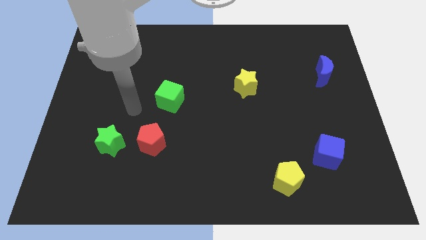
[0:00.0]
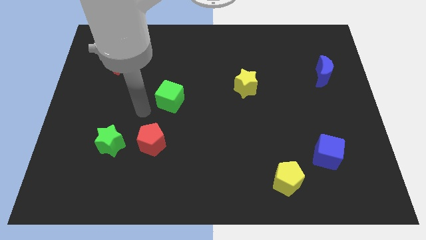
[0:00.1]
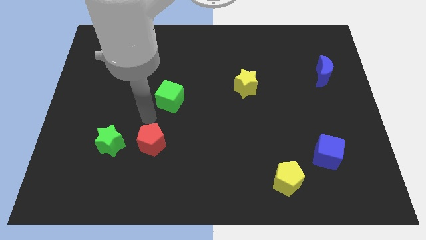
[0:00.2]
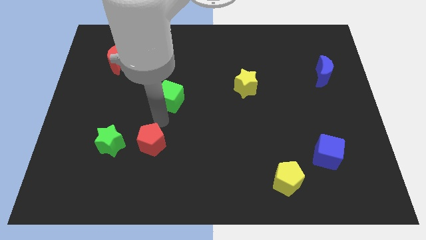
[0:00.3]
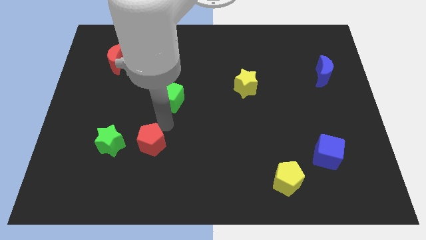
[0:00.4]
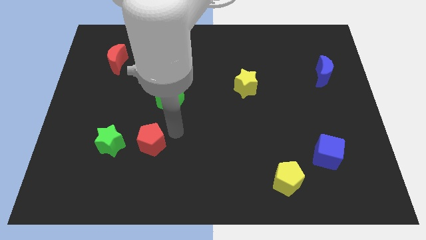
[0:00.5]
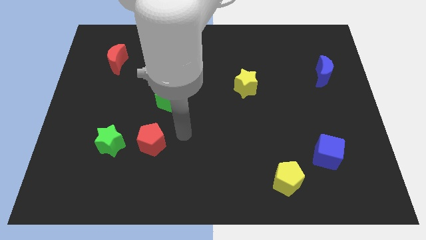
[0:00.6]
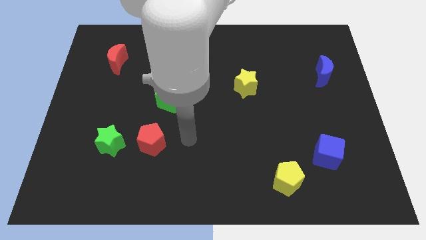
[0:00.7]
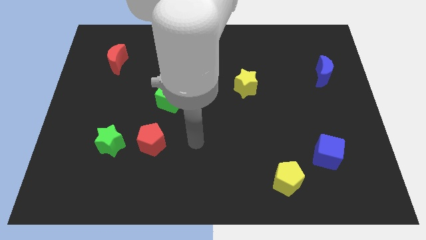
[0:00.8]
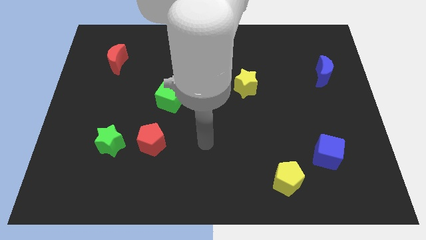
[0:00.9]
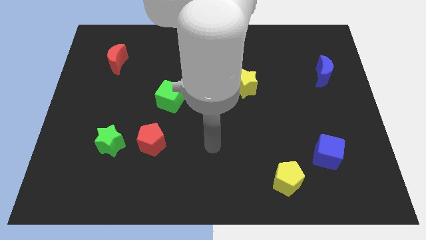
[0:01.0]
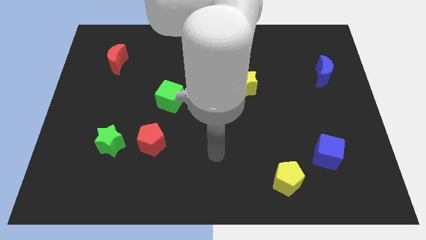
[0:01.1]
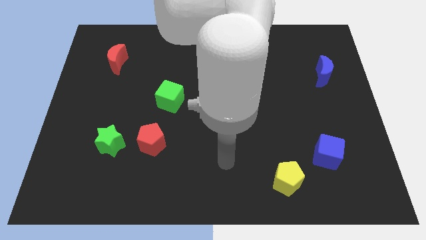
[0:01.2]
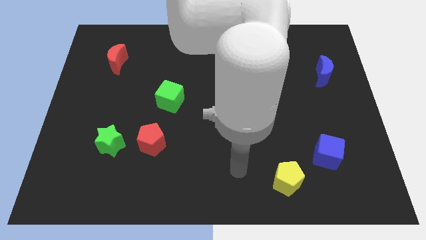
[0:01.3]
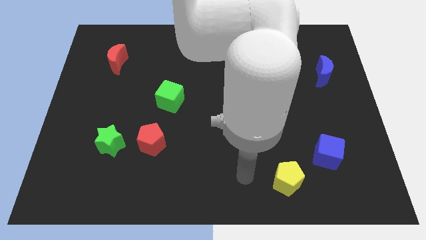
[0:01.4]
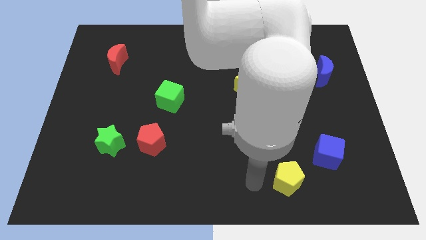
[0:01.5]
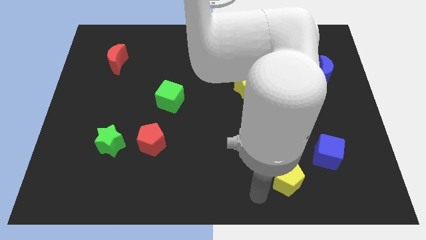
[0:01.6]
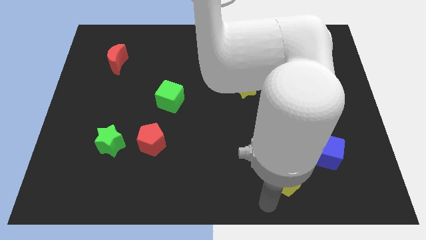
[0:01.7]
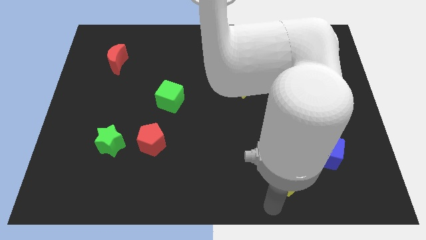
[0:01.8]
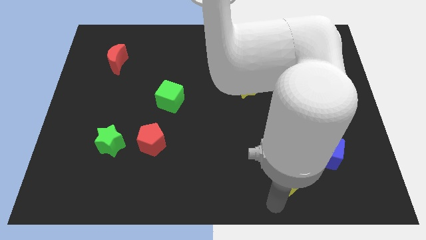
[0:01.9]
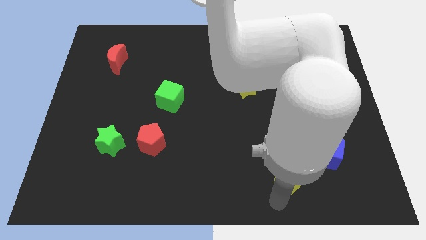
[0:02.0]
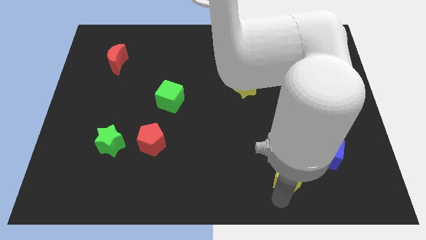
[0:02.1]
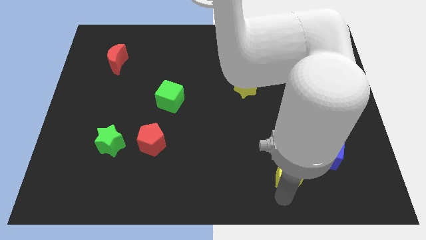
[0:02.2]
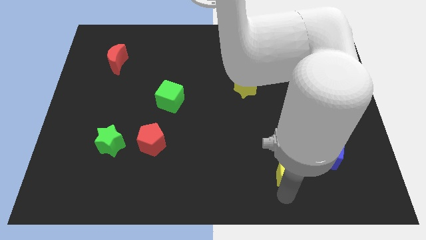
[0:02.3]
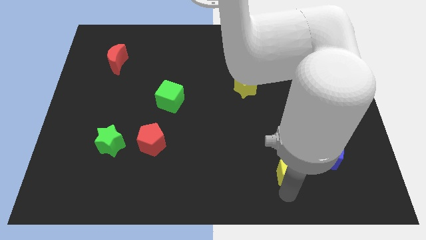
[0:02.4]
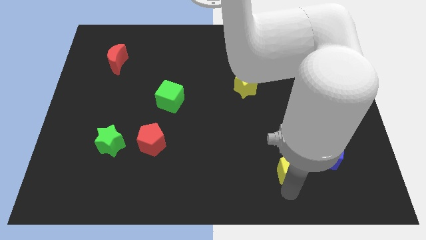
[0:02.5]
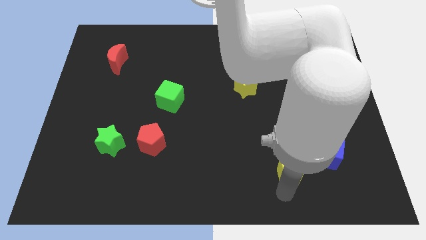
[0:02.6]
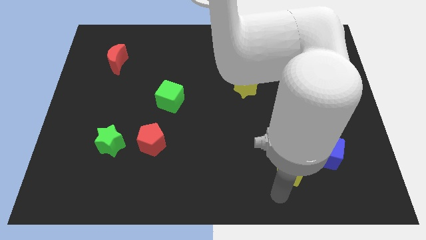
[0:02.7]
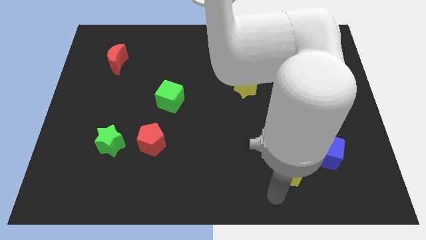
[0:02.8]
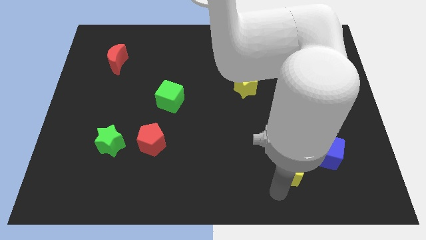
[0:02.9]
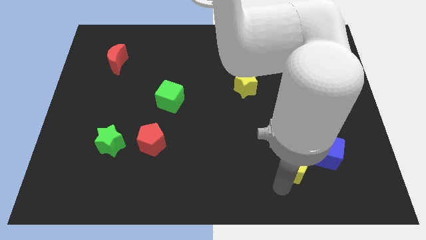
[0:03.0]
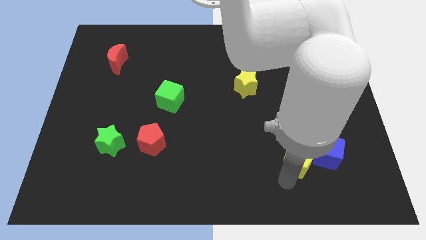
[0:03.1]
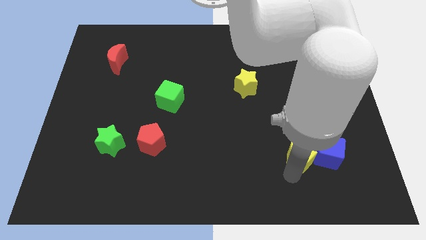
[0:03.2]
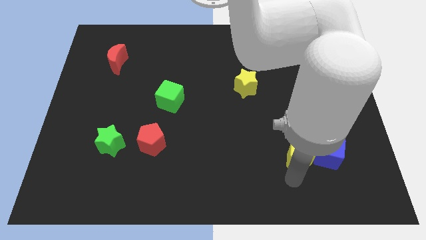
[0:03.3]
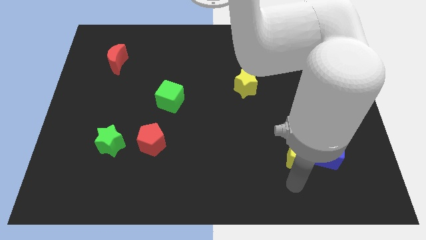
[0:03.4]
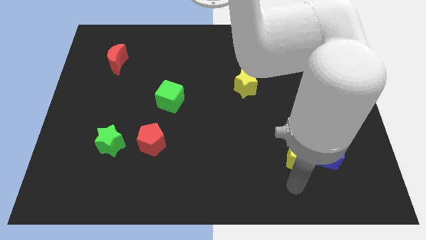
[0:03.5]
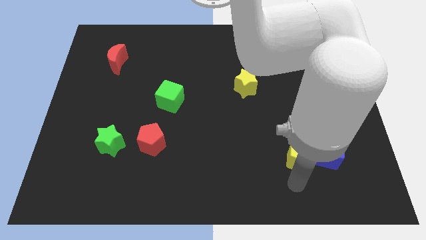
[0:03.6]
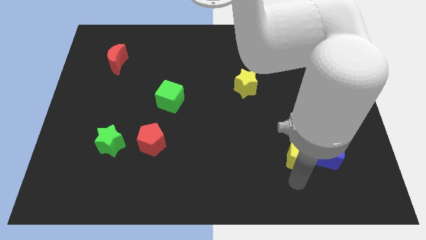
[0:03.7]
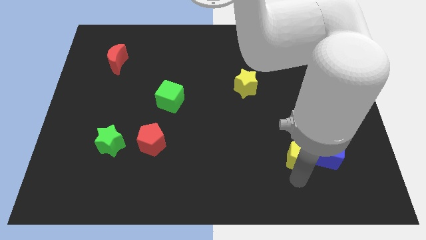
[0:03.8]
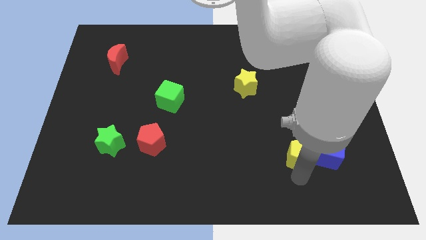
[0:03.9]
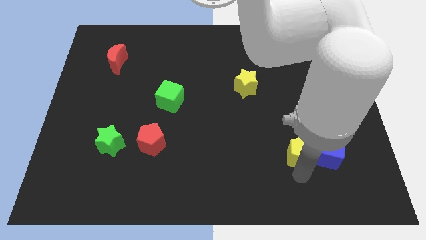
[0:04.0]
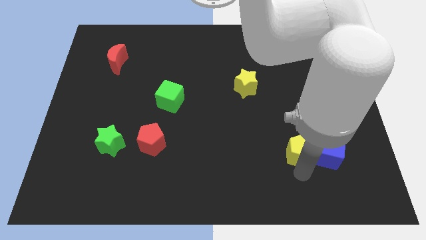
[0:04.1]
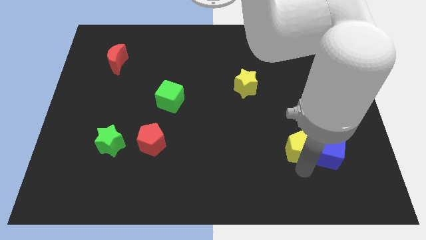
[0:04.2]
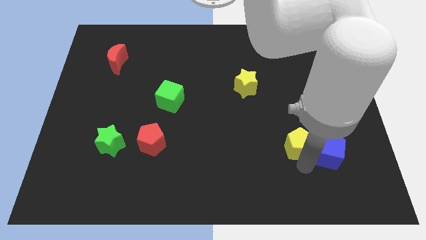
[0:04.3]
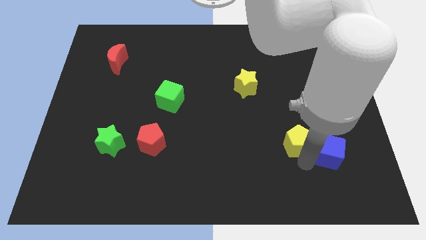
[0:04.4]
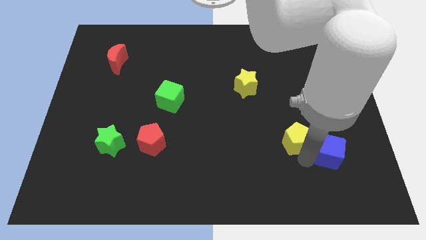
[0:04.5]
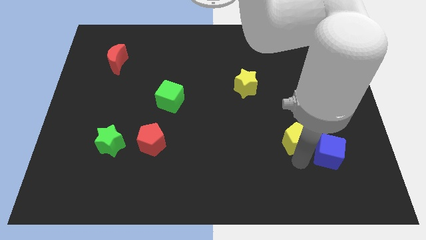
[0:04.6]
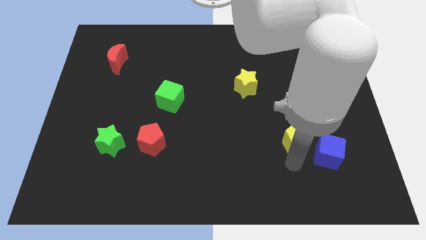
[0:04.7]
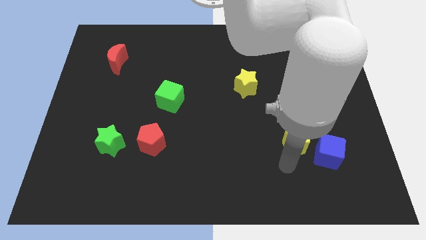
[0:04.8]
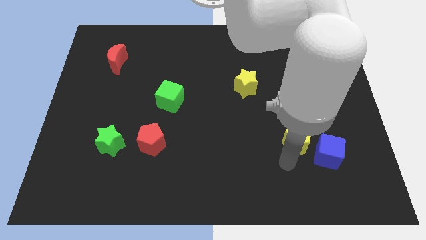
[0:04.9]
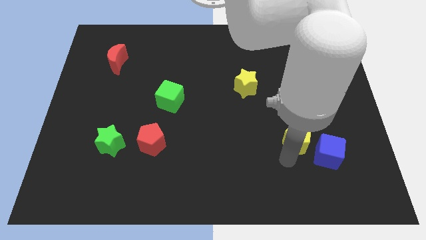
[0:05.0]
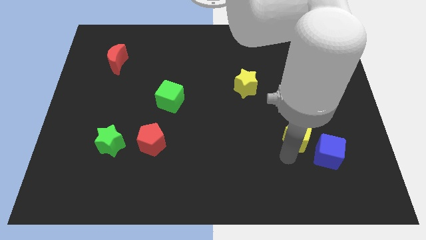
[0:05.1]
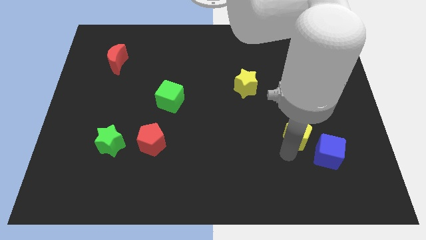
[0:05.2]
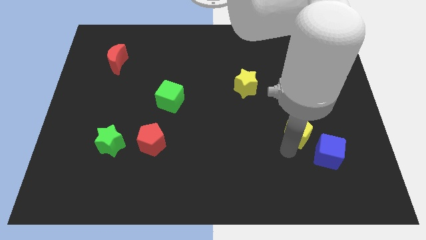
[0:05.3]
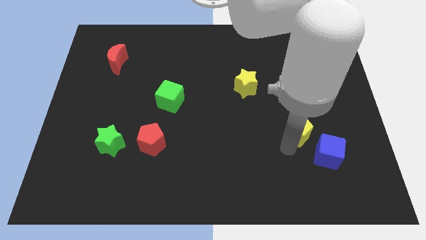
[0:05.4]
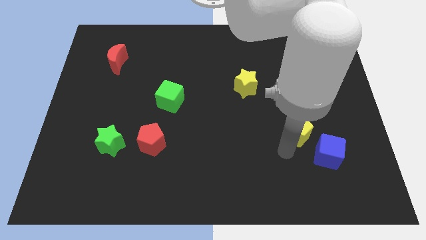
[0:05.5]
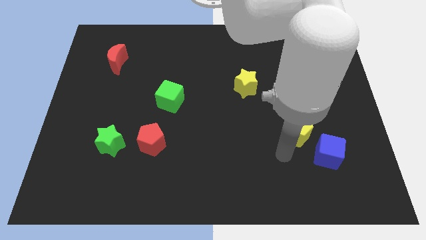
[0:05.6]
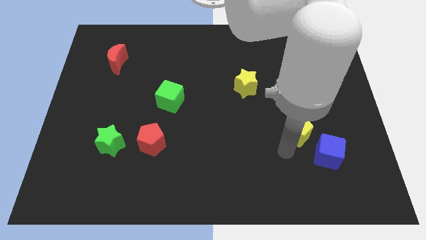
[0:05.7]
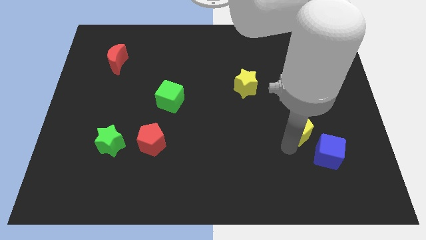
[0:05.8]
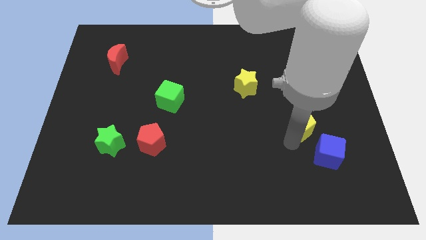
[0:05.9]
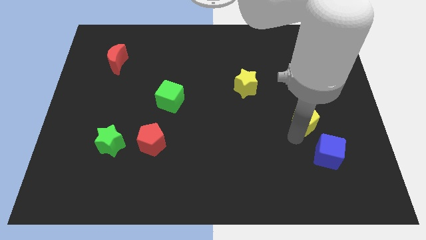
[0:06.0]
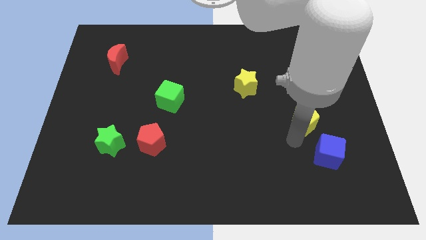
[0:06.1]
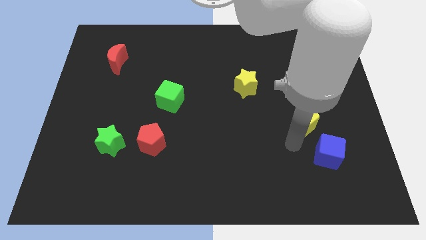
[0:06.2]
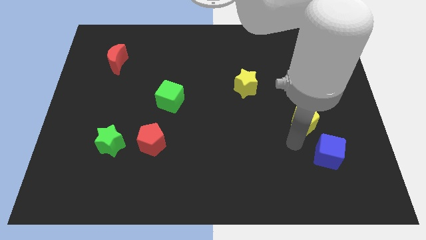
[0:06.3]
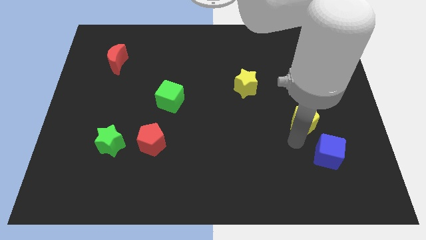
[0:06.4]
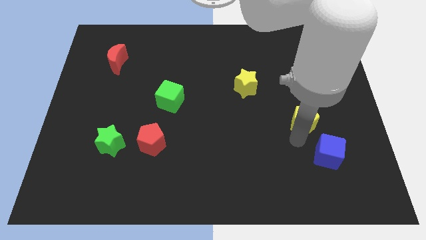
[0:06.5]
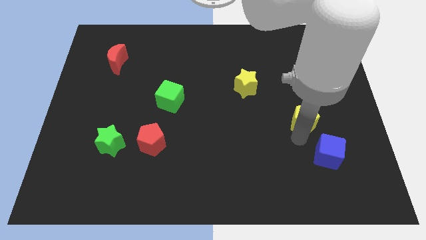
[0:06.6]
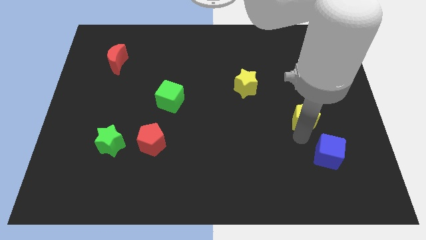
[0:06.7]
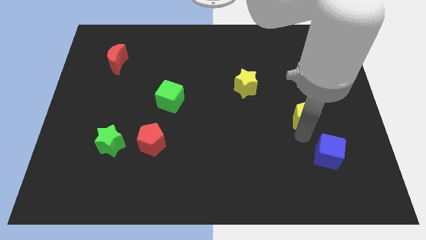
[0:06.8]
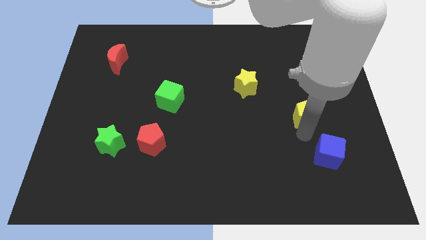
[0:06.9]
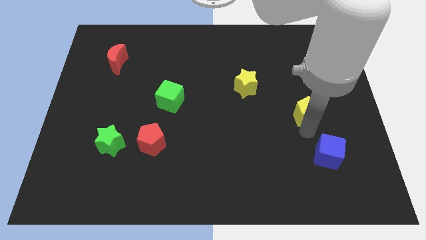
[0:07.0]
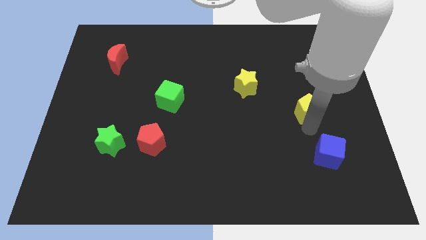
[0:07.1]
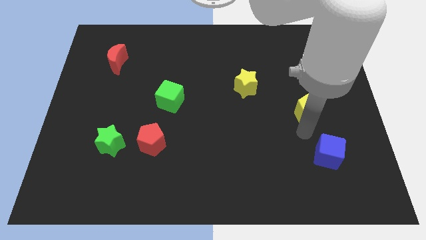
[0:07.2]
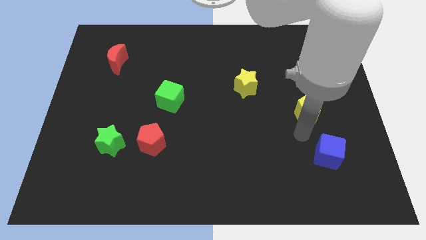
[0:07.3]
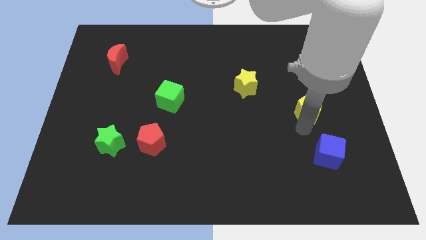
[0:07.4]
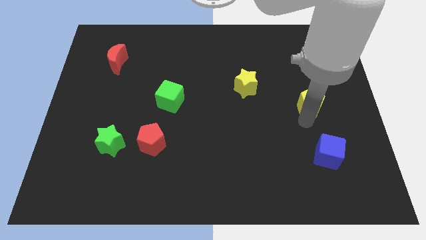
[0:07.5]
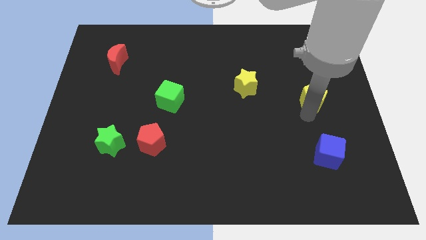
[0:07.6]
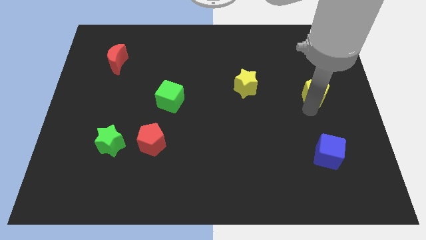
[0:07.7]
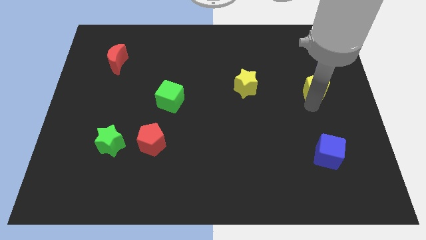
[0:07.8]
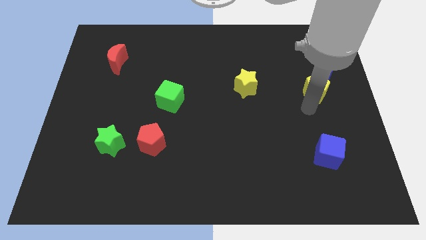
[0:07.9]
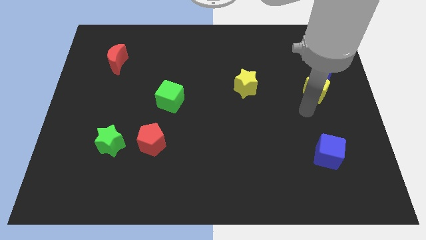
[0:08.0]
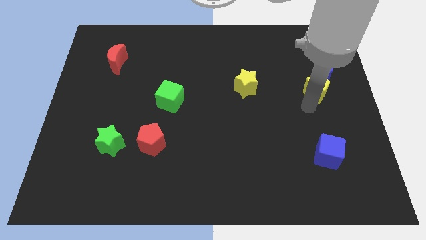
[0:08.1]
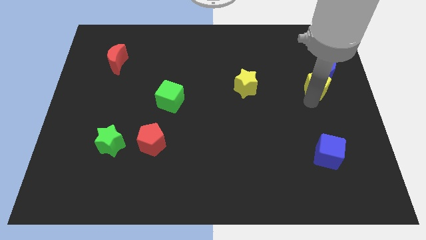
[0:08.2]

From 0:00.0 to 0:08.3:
slide the yellow pentagon towards the blue moon
